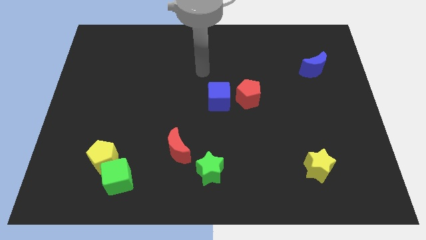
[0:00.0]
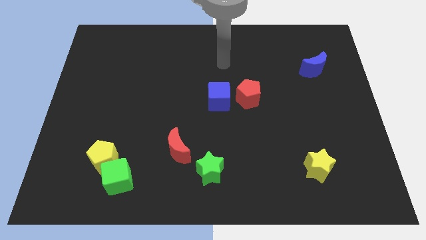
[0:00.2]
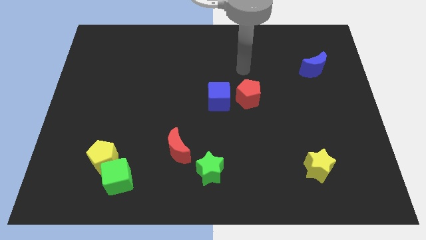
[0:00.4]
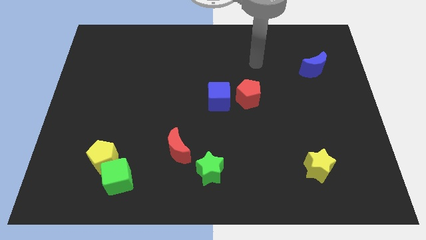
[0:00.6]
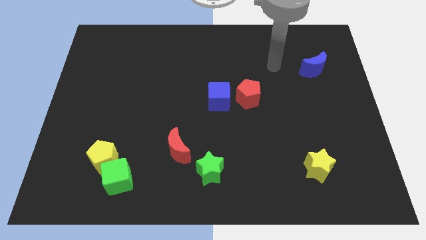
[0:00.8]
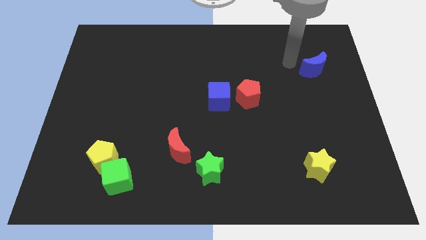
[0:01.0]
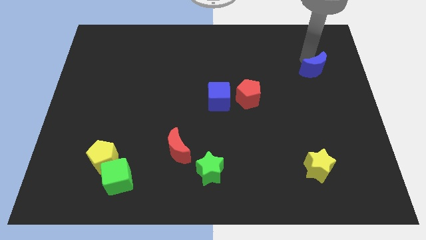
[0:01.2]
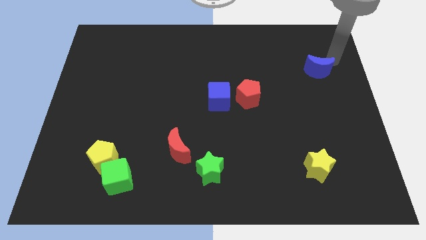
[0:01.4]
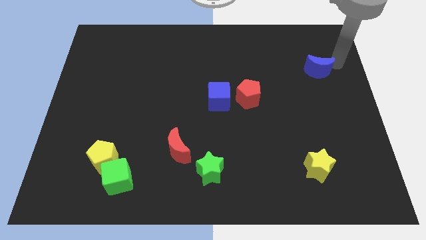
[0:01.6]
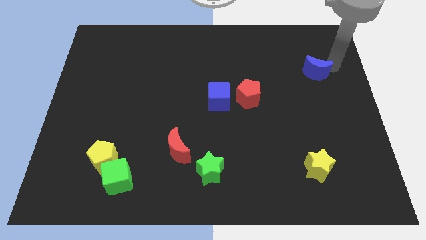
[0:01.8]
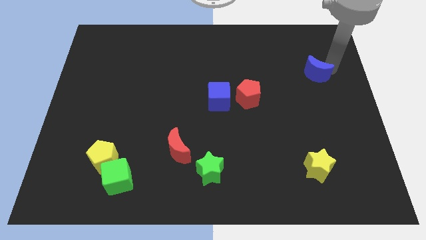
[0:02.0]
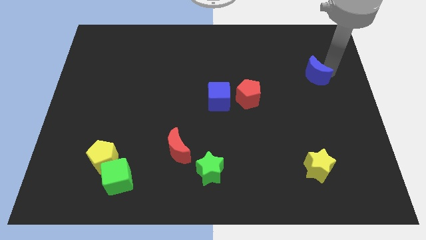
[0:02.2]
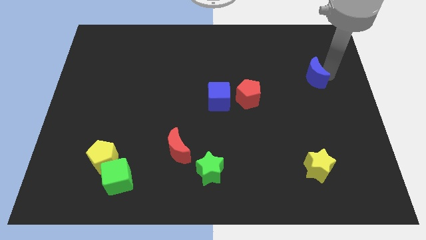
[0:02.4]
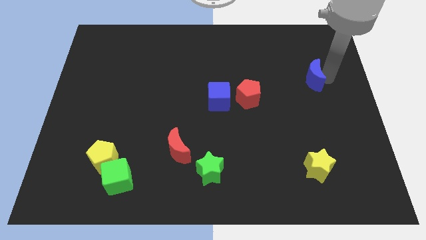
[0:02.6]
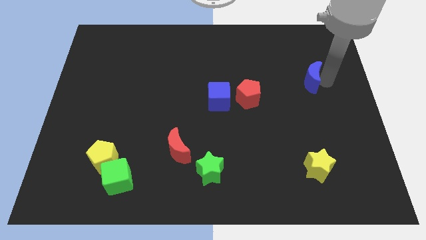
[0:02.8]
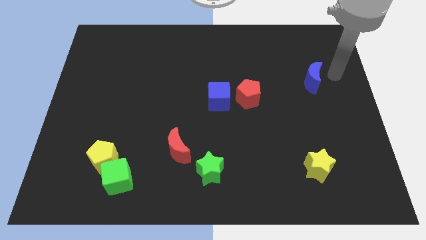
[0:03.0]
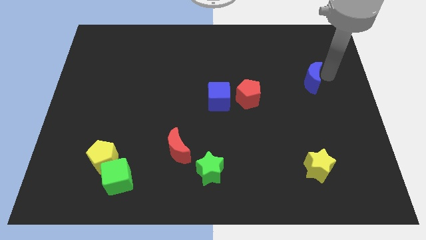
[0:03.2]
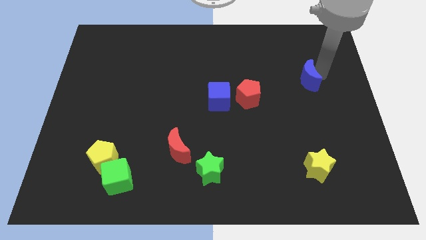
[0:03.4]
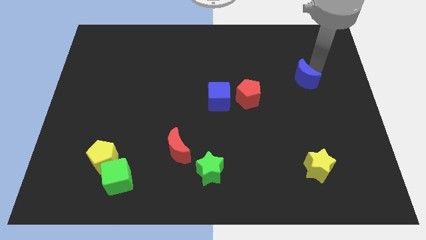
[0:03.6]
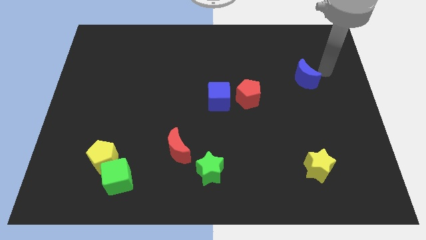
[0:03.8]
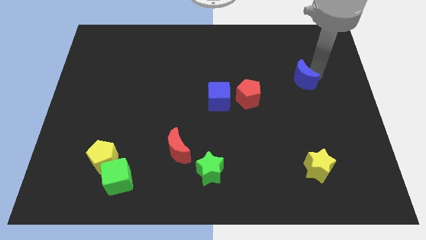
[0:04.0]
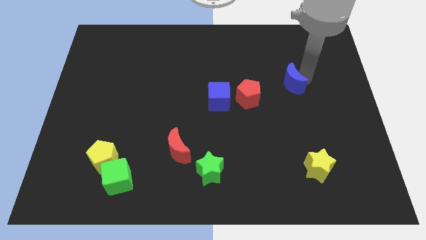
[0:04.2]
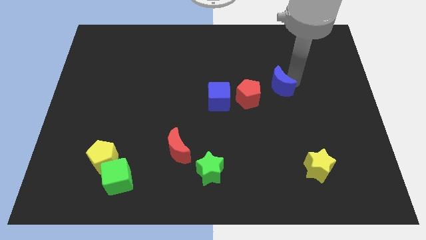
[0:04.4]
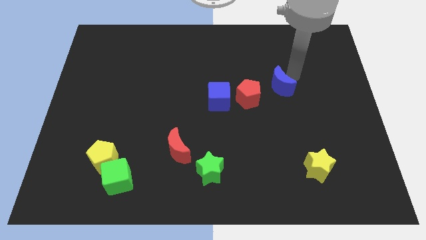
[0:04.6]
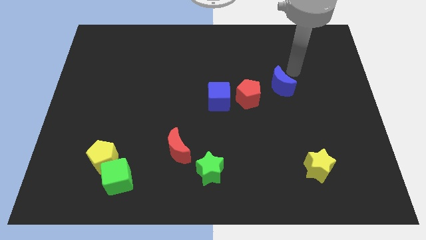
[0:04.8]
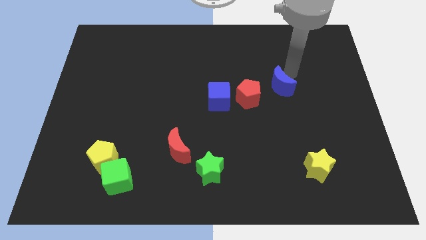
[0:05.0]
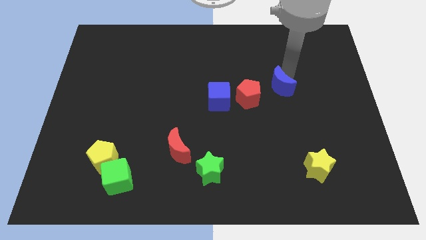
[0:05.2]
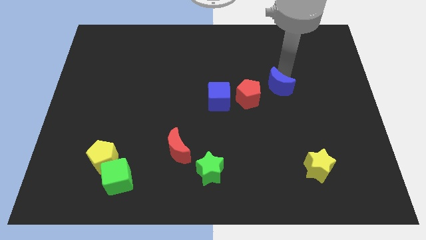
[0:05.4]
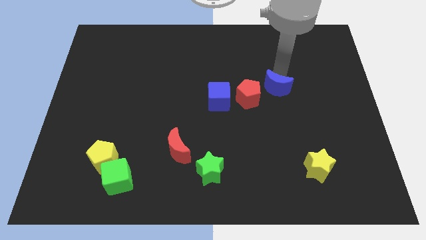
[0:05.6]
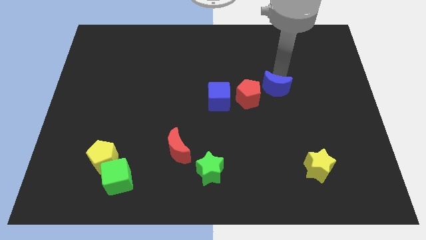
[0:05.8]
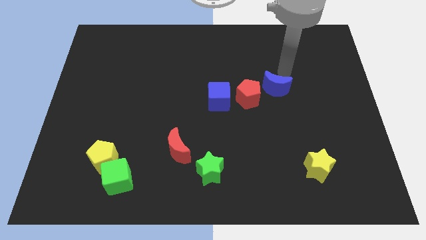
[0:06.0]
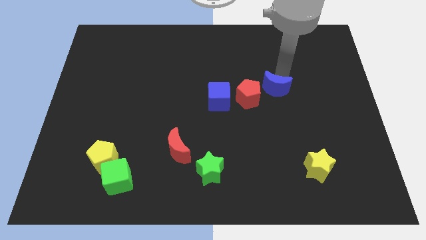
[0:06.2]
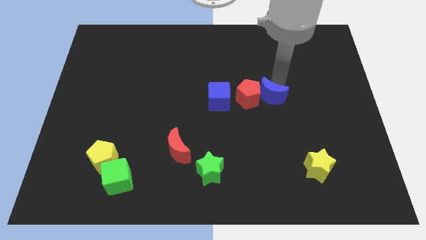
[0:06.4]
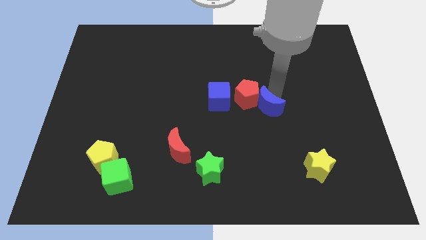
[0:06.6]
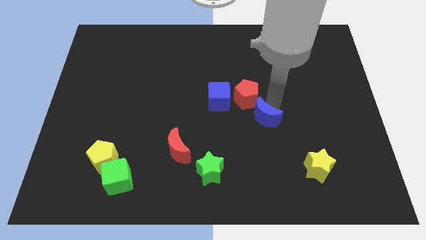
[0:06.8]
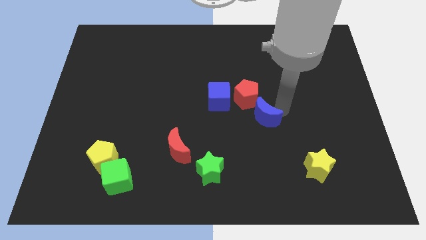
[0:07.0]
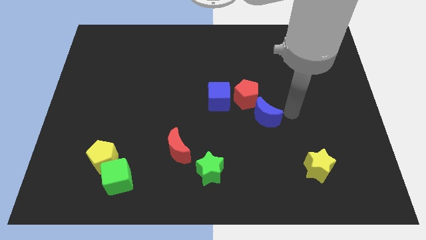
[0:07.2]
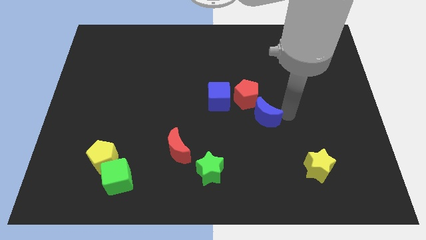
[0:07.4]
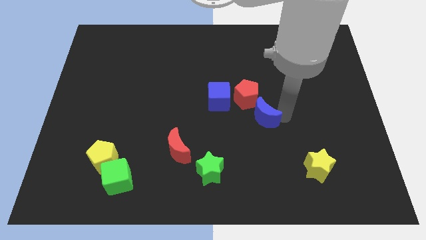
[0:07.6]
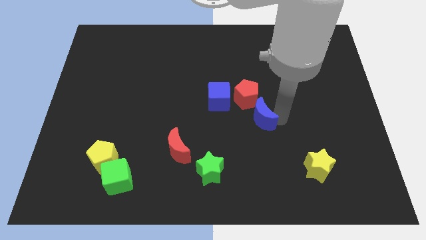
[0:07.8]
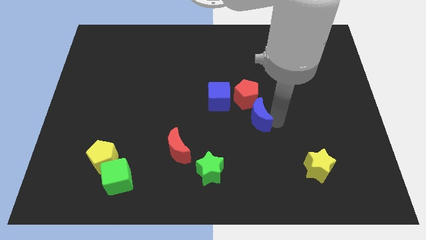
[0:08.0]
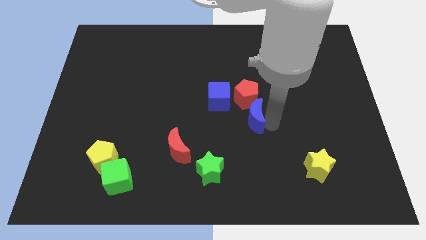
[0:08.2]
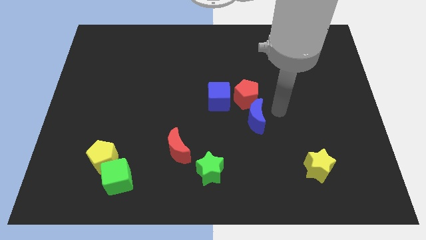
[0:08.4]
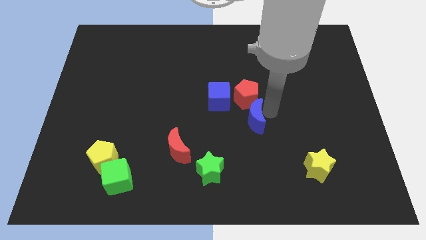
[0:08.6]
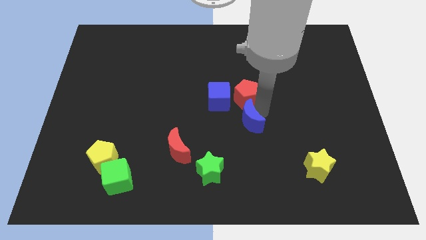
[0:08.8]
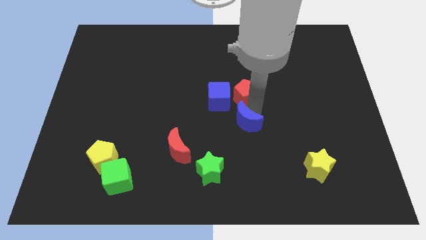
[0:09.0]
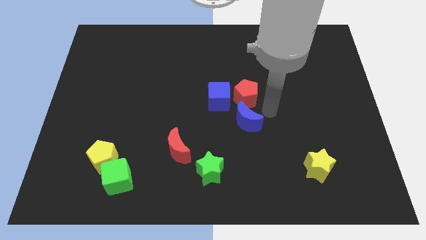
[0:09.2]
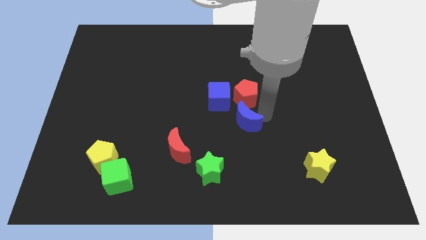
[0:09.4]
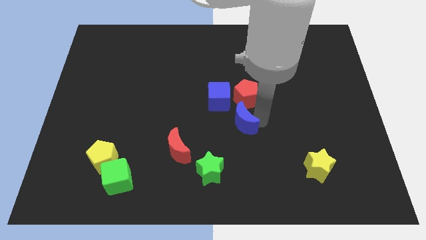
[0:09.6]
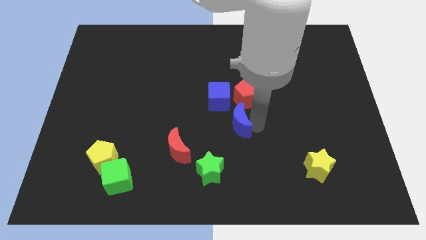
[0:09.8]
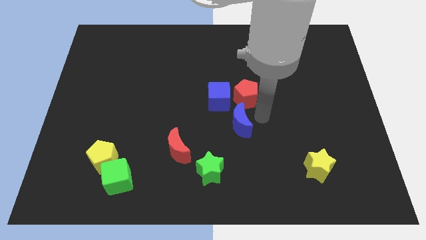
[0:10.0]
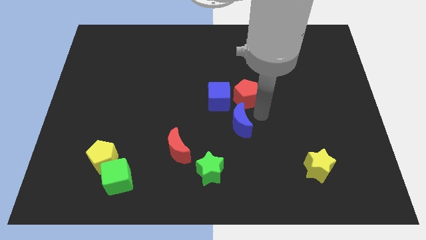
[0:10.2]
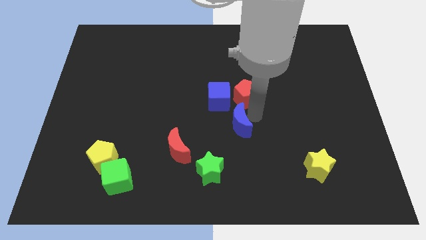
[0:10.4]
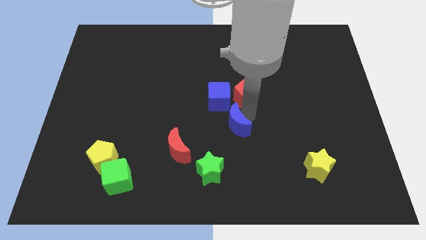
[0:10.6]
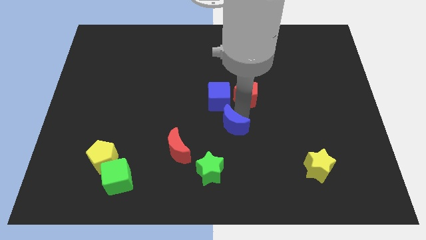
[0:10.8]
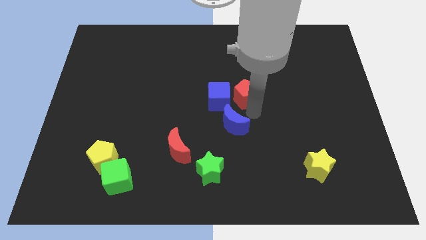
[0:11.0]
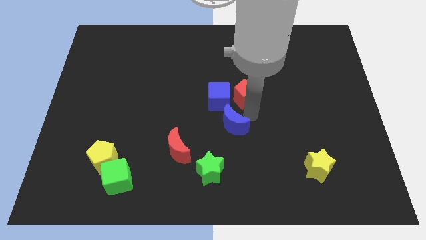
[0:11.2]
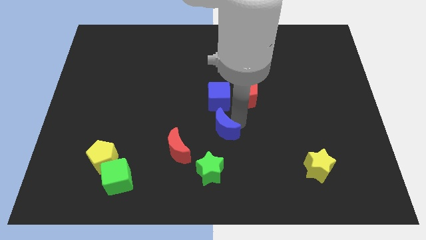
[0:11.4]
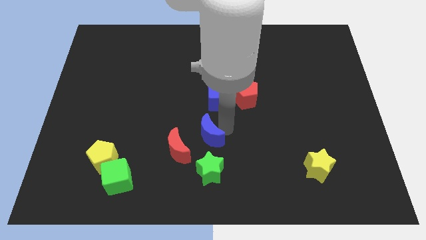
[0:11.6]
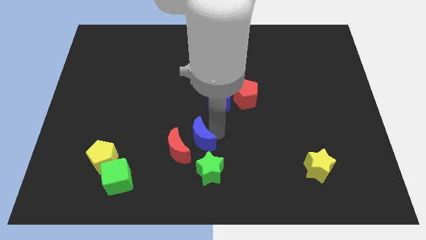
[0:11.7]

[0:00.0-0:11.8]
move the blue moon to the red moon

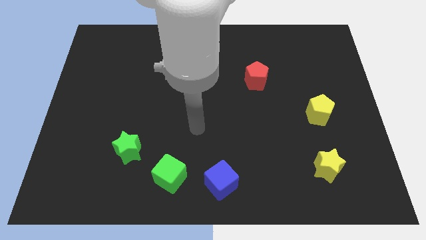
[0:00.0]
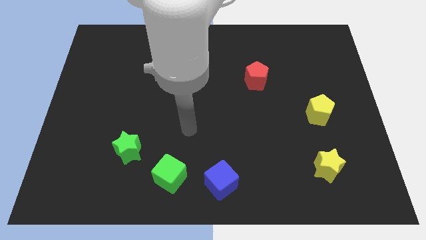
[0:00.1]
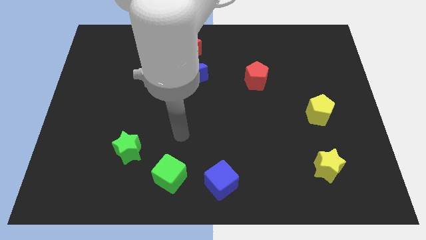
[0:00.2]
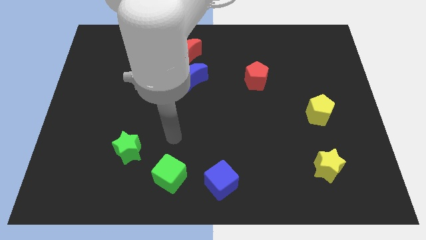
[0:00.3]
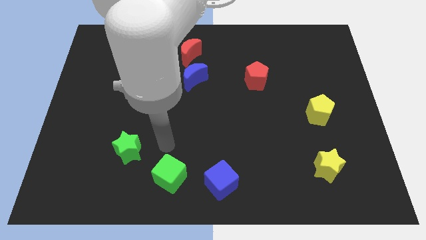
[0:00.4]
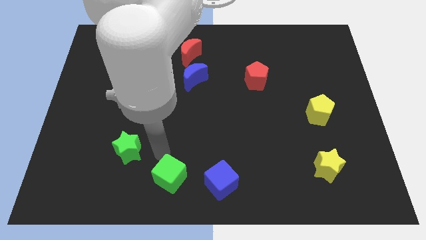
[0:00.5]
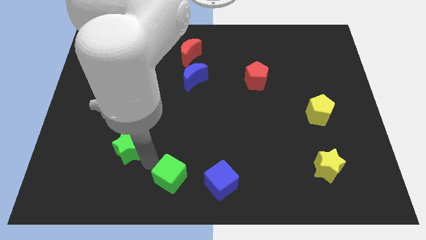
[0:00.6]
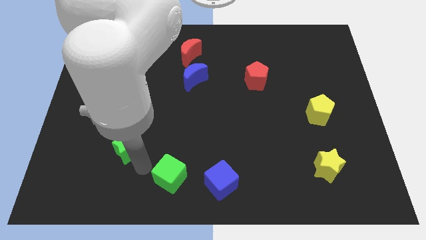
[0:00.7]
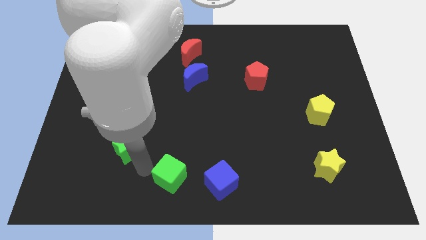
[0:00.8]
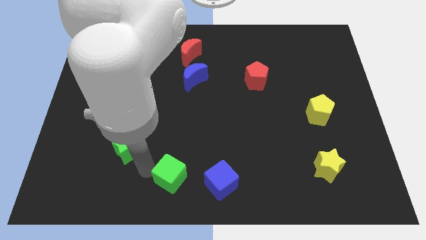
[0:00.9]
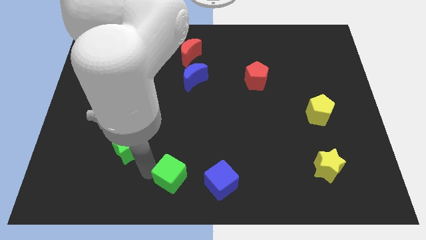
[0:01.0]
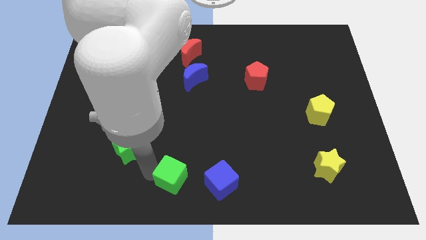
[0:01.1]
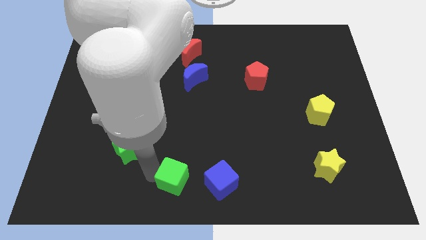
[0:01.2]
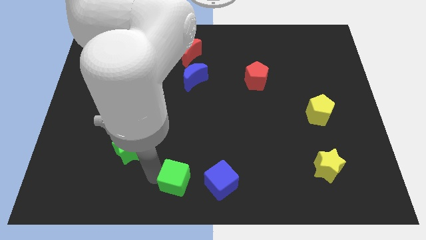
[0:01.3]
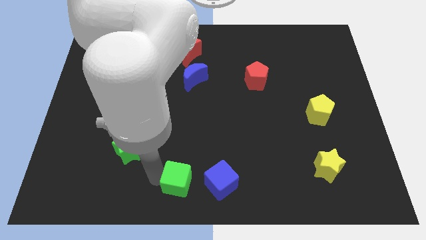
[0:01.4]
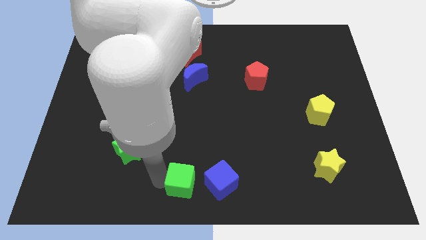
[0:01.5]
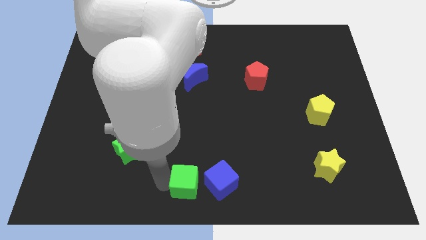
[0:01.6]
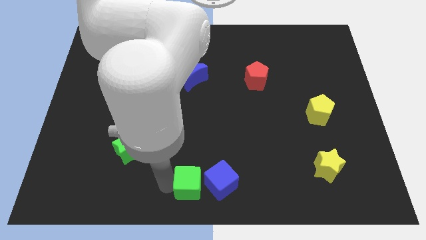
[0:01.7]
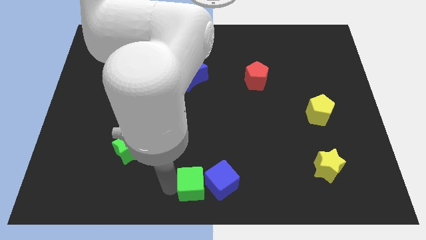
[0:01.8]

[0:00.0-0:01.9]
move the green cube to the blue cube
